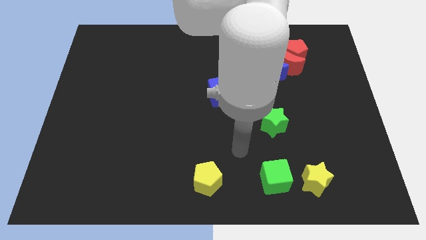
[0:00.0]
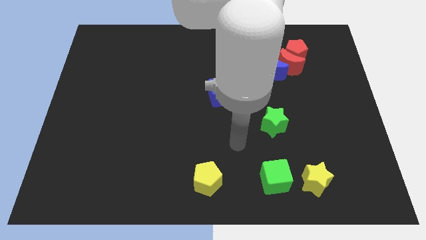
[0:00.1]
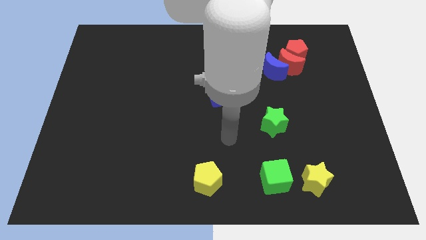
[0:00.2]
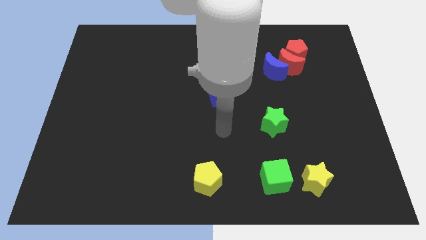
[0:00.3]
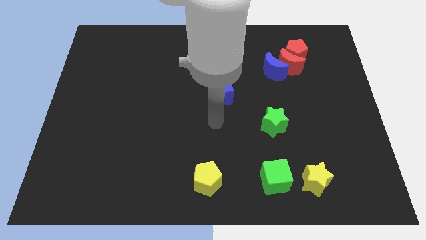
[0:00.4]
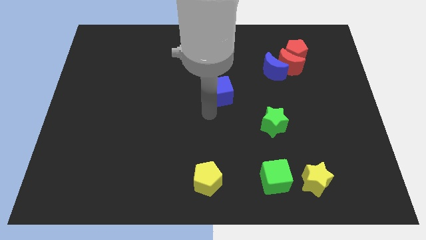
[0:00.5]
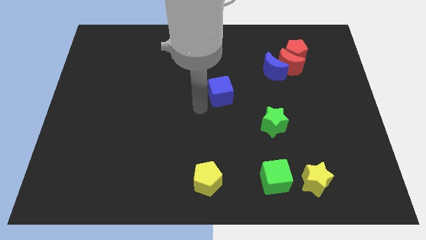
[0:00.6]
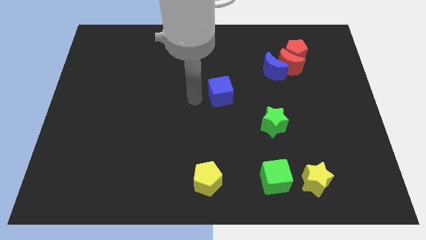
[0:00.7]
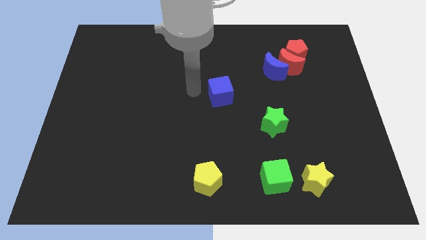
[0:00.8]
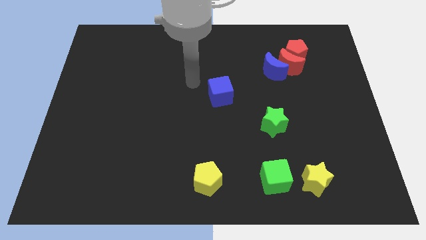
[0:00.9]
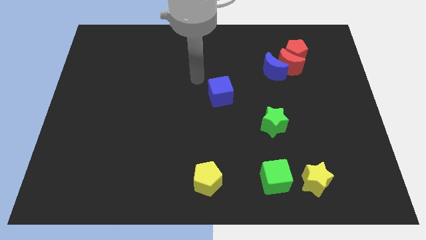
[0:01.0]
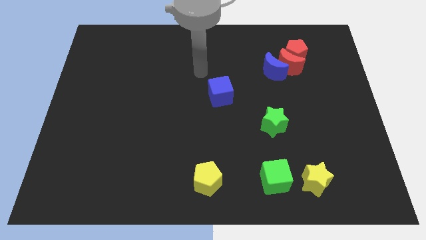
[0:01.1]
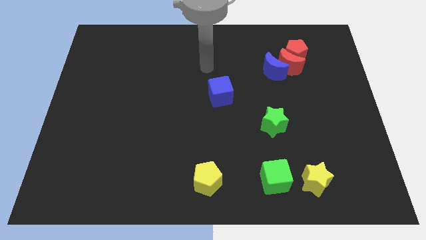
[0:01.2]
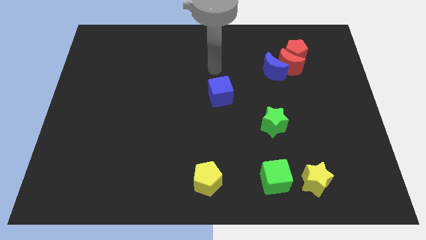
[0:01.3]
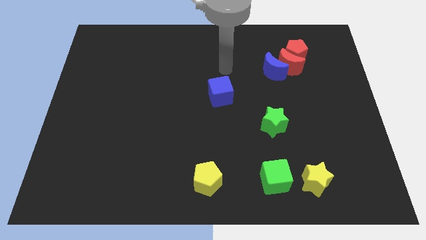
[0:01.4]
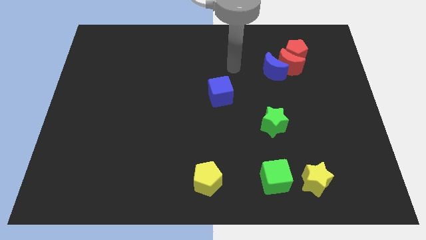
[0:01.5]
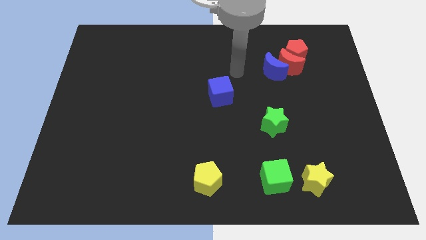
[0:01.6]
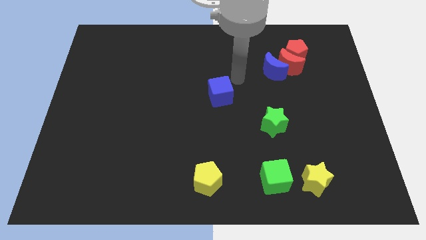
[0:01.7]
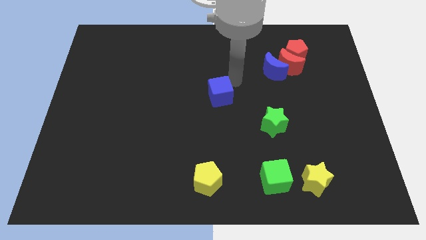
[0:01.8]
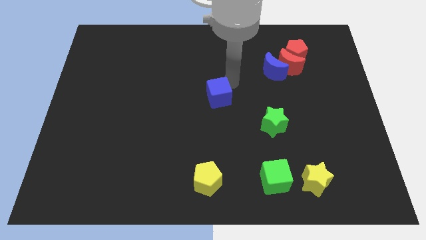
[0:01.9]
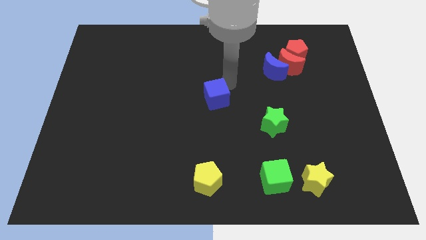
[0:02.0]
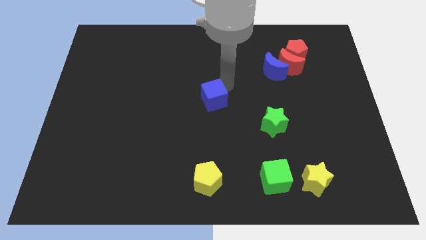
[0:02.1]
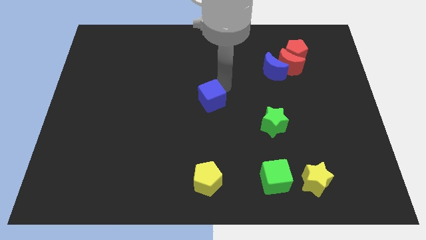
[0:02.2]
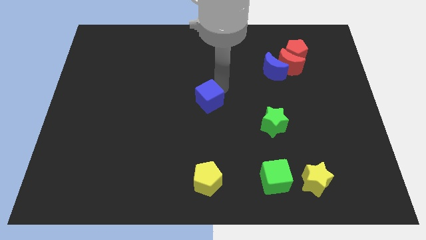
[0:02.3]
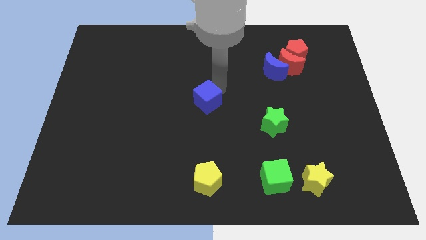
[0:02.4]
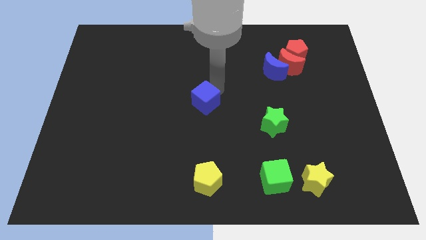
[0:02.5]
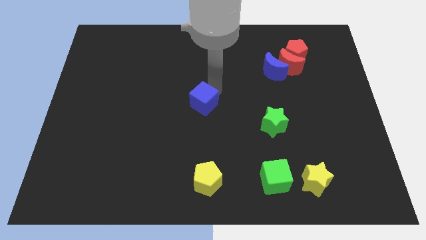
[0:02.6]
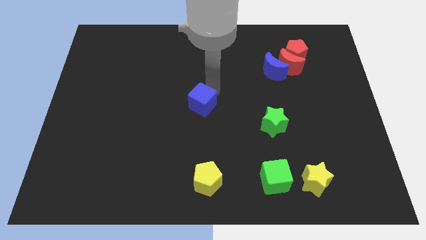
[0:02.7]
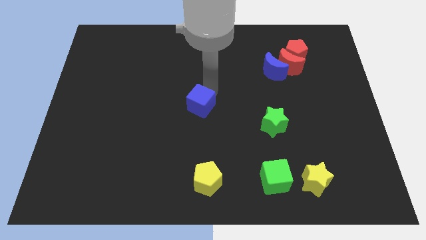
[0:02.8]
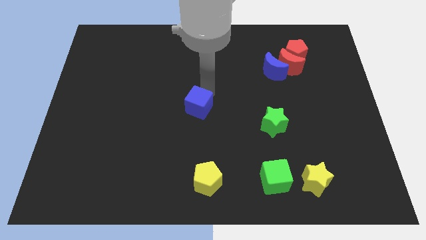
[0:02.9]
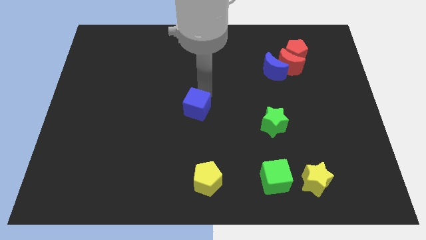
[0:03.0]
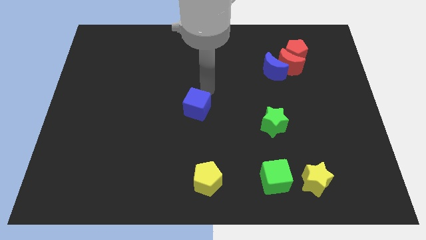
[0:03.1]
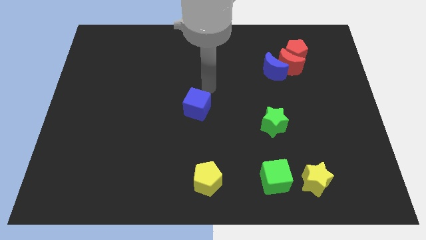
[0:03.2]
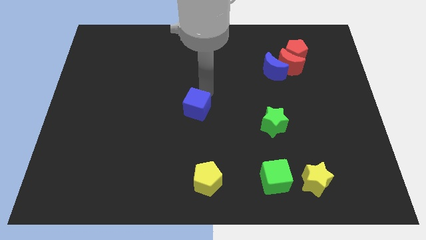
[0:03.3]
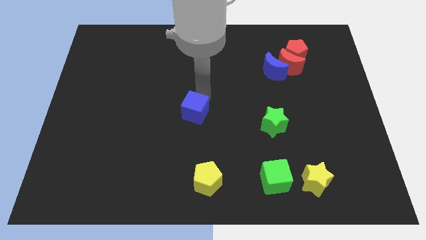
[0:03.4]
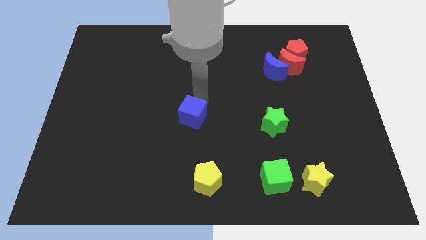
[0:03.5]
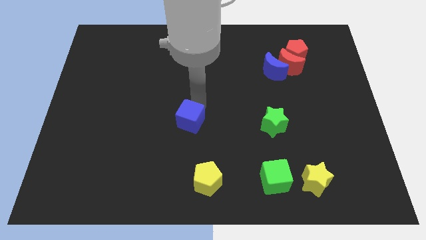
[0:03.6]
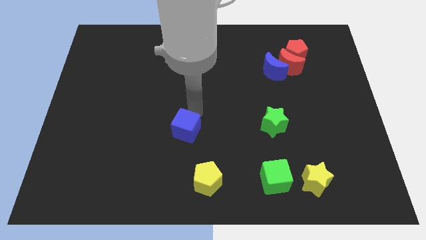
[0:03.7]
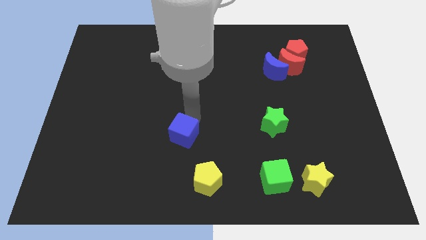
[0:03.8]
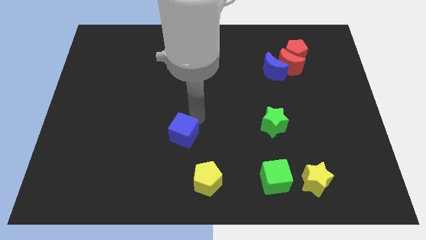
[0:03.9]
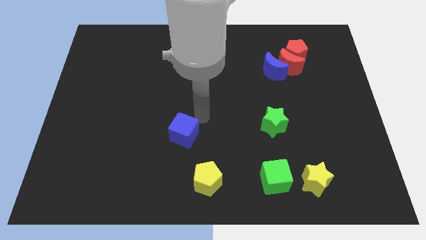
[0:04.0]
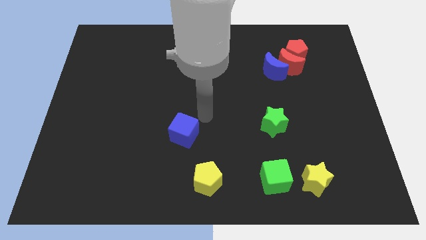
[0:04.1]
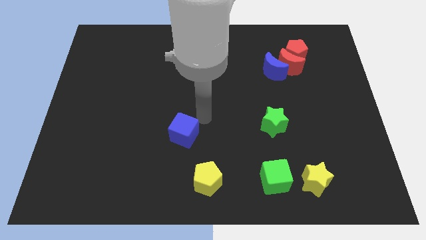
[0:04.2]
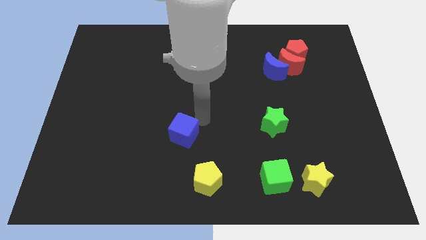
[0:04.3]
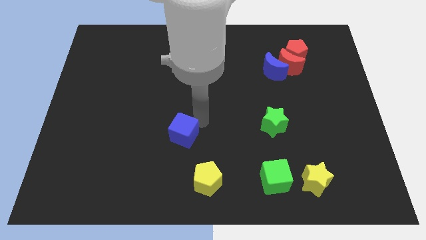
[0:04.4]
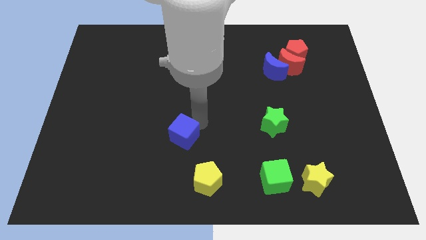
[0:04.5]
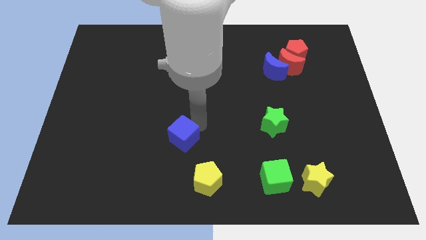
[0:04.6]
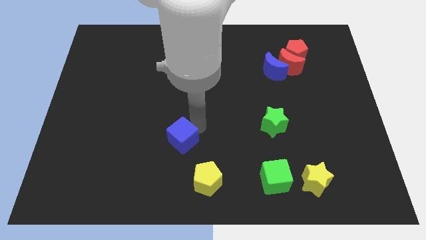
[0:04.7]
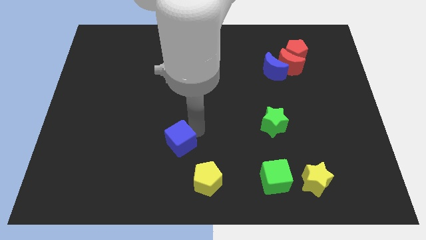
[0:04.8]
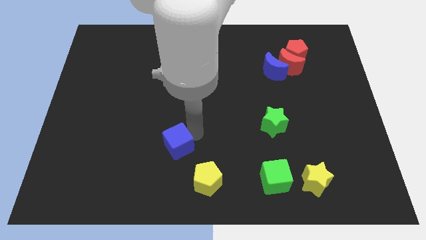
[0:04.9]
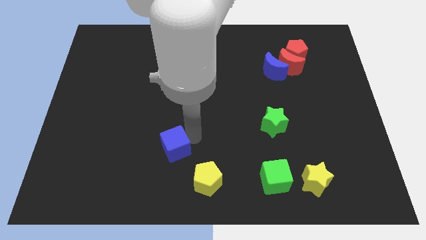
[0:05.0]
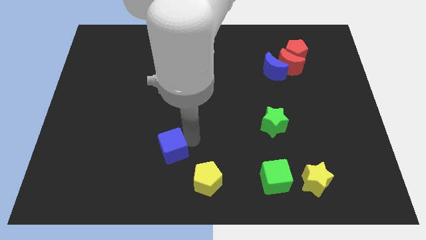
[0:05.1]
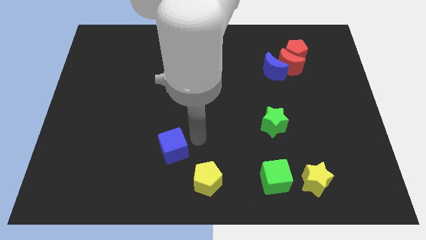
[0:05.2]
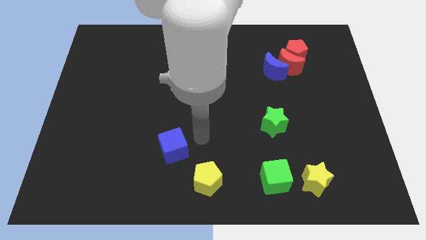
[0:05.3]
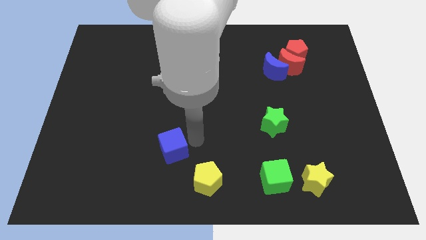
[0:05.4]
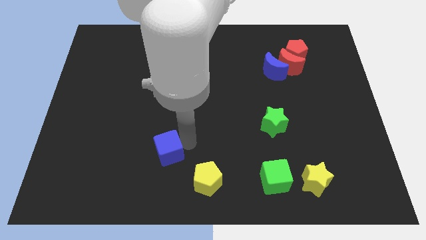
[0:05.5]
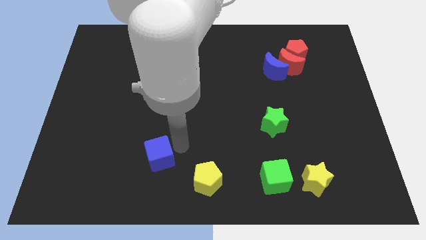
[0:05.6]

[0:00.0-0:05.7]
push the blue cube downwards and then to the left

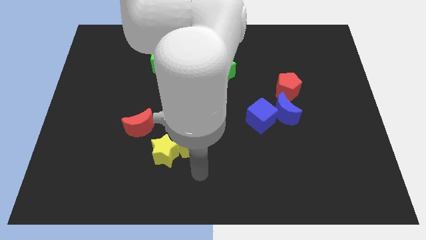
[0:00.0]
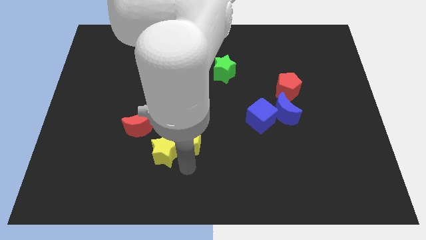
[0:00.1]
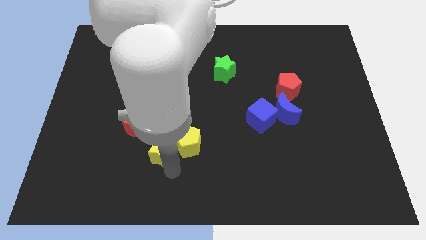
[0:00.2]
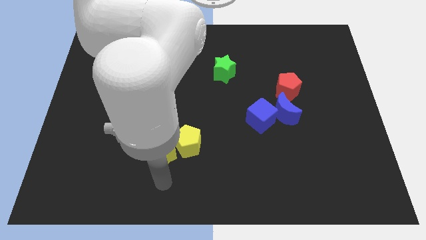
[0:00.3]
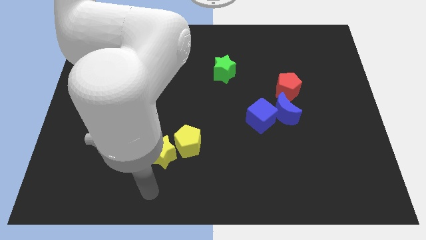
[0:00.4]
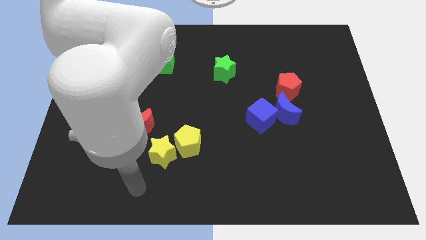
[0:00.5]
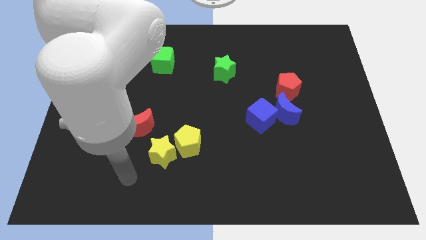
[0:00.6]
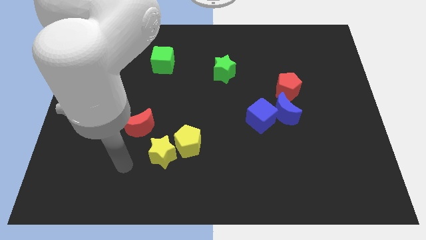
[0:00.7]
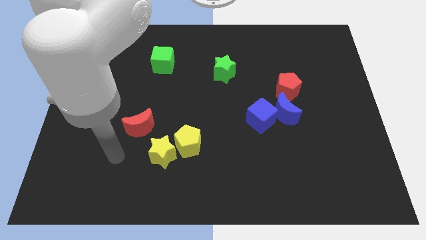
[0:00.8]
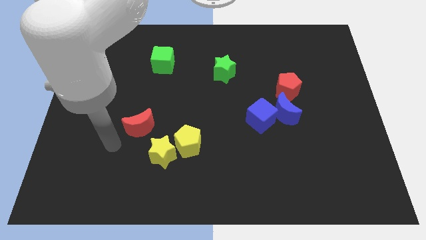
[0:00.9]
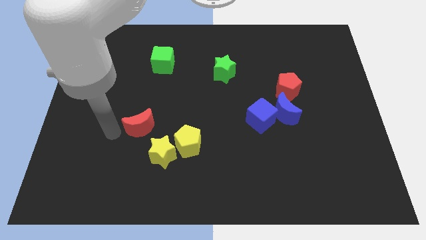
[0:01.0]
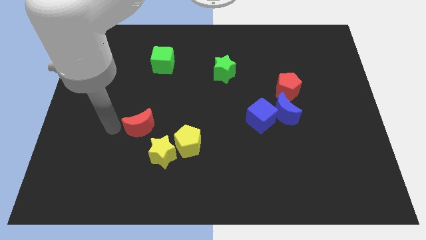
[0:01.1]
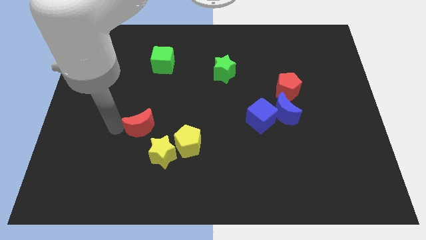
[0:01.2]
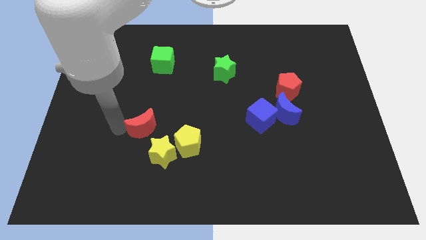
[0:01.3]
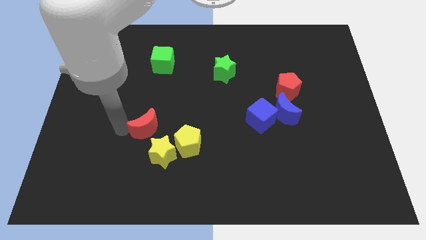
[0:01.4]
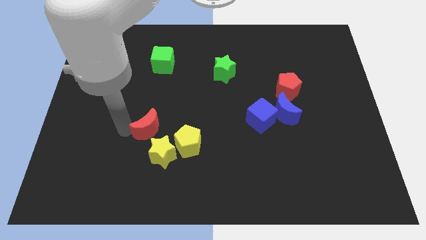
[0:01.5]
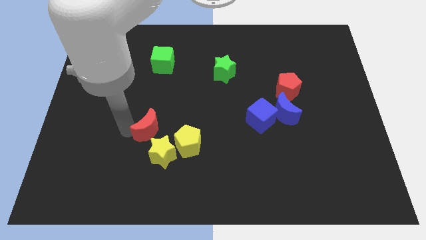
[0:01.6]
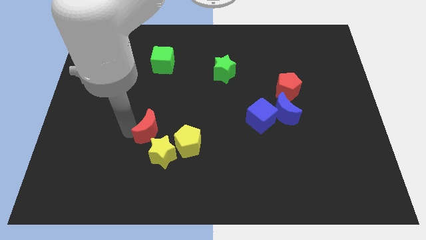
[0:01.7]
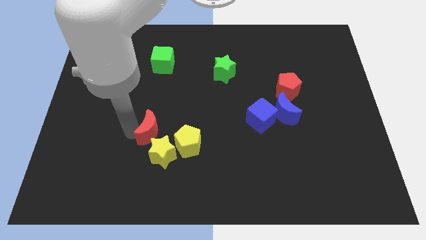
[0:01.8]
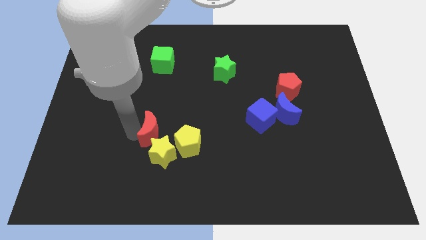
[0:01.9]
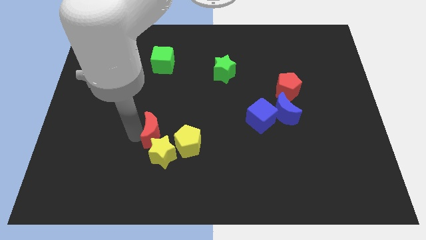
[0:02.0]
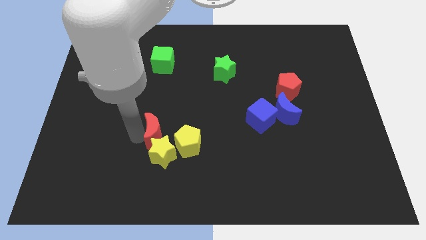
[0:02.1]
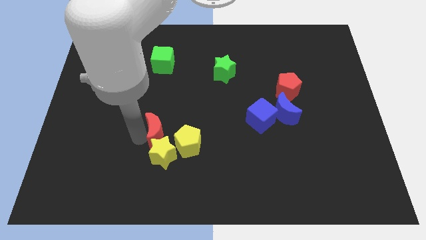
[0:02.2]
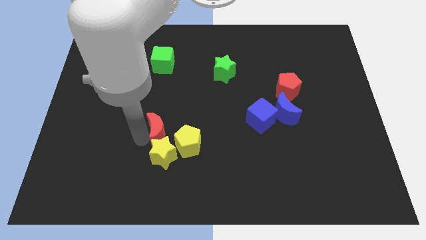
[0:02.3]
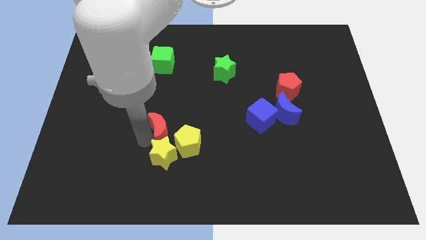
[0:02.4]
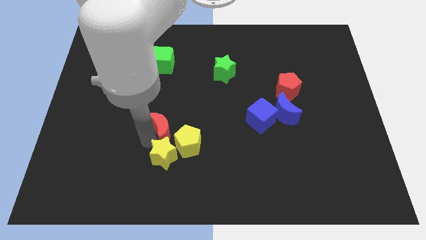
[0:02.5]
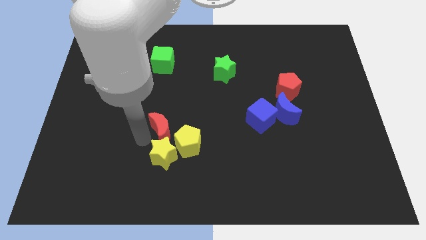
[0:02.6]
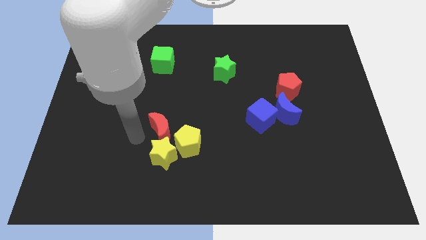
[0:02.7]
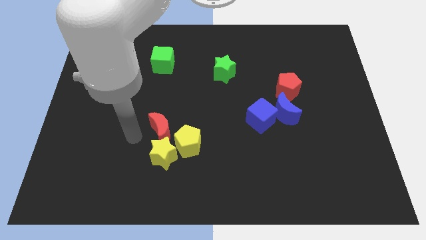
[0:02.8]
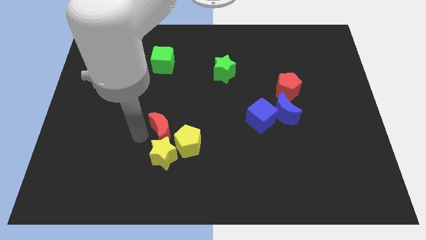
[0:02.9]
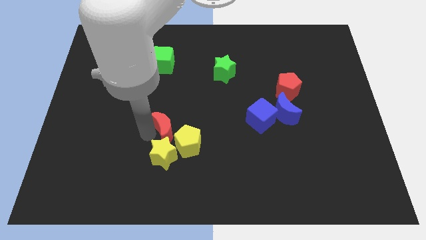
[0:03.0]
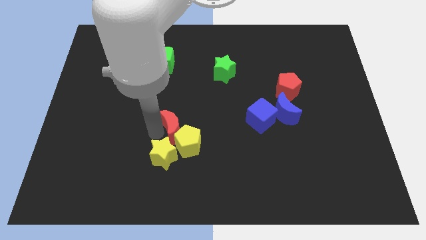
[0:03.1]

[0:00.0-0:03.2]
move the red moon to the right slightly
